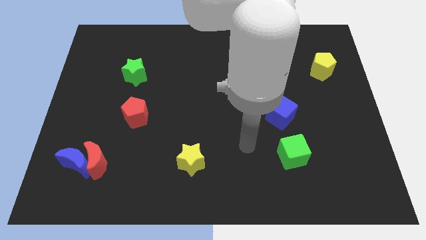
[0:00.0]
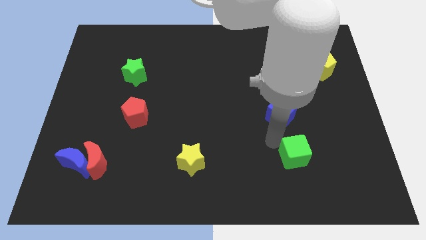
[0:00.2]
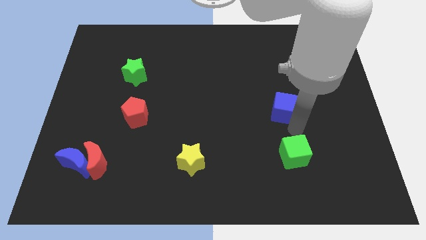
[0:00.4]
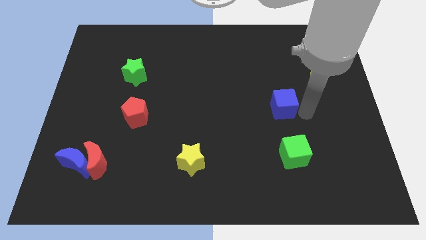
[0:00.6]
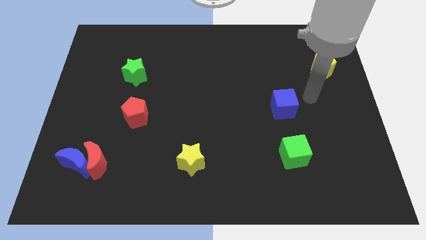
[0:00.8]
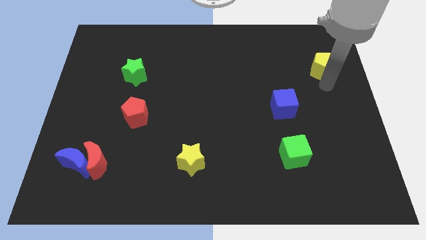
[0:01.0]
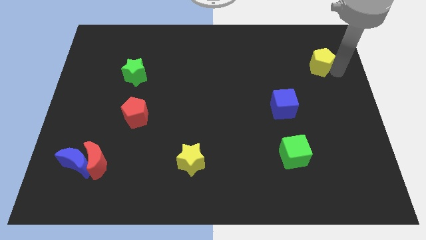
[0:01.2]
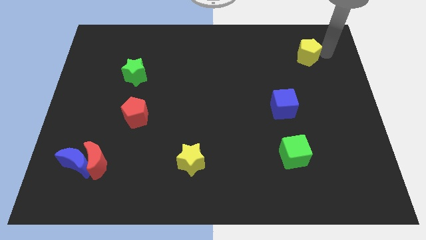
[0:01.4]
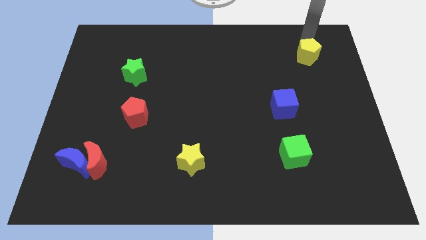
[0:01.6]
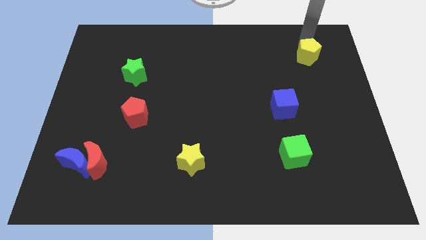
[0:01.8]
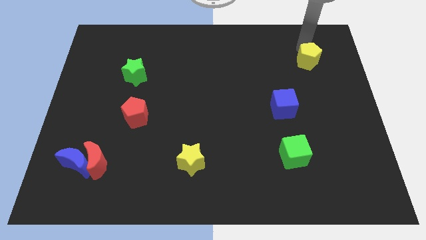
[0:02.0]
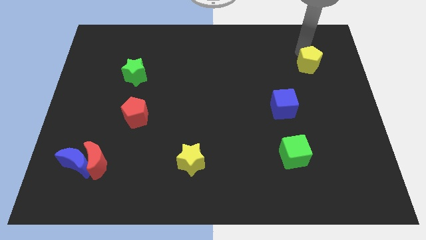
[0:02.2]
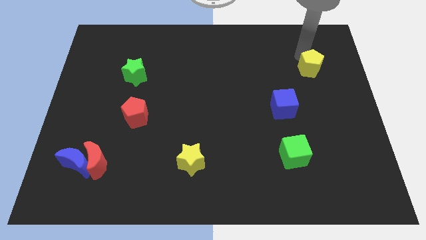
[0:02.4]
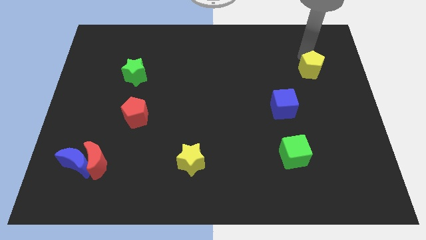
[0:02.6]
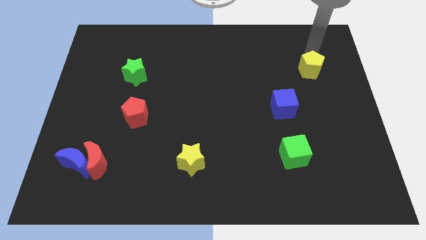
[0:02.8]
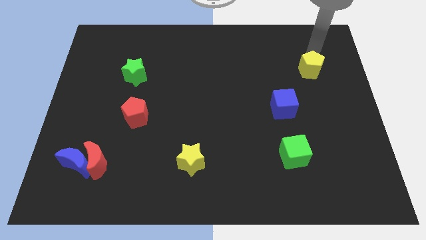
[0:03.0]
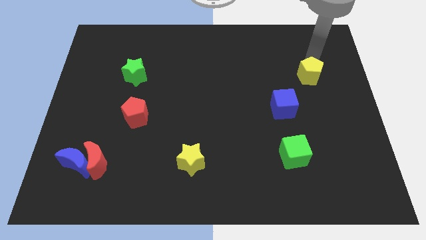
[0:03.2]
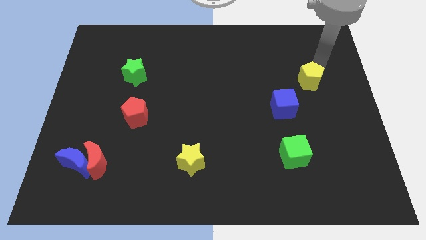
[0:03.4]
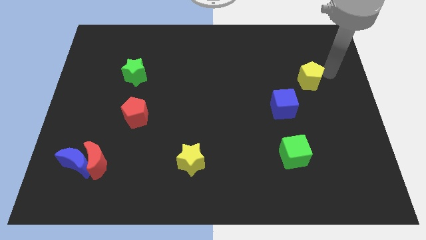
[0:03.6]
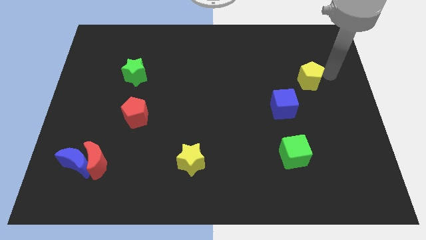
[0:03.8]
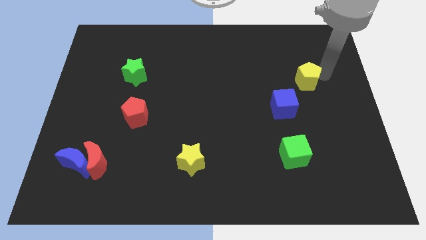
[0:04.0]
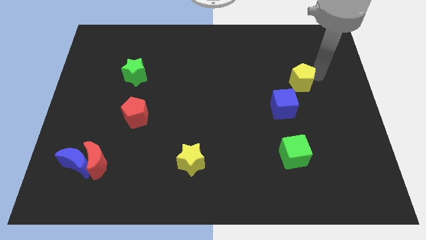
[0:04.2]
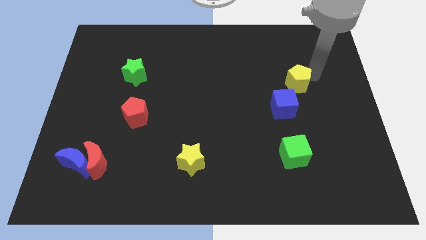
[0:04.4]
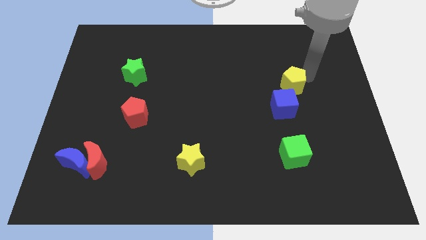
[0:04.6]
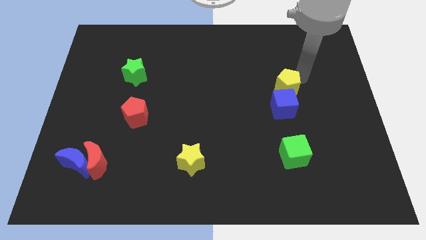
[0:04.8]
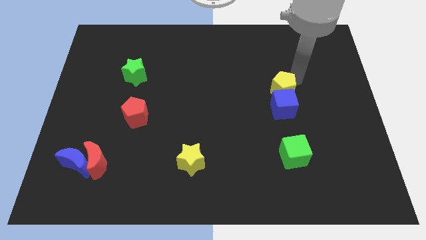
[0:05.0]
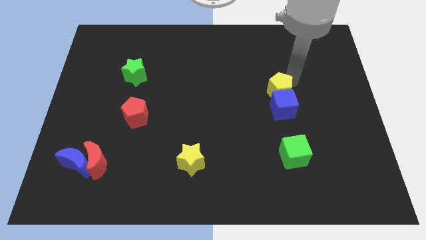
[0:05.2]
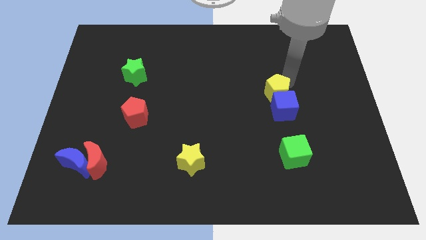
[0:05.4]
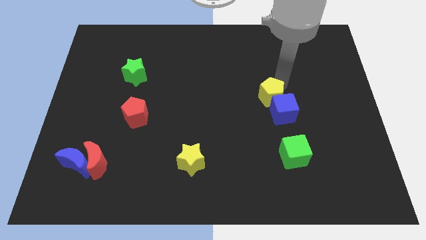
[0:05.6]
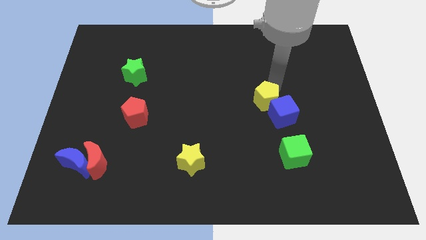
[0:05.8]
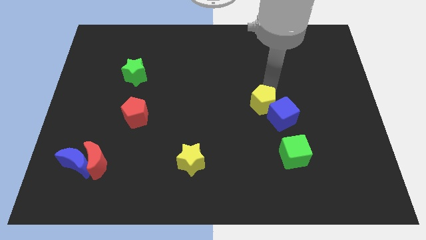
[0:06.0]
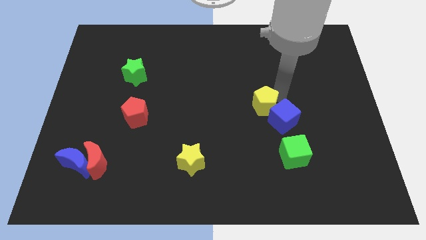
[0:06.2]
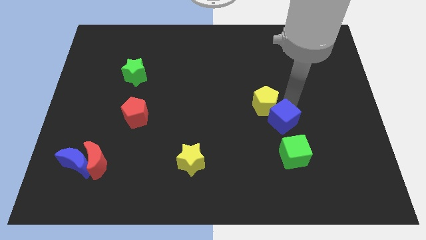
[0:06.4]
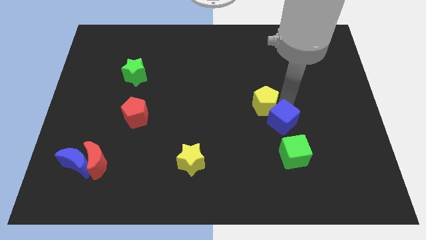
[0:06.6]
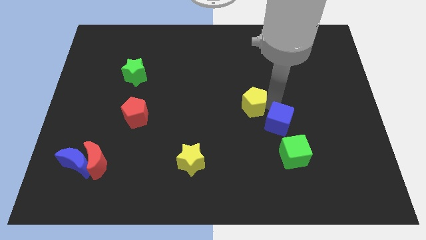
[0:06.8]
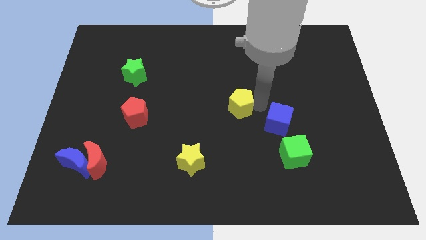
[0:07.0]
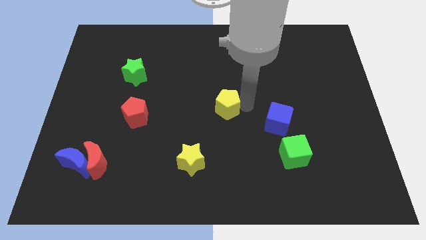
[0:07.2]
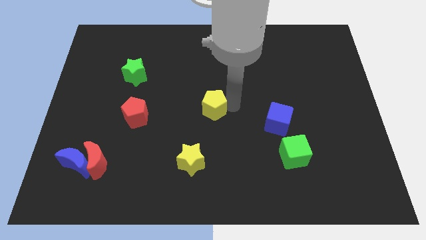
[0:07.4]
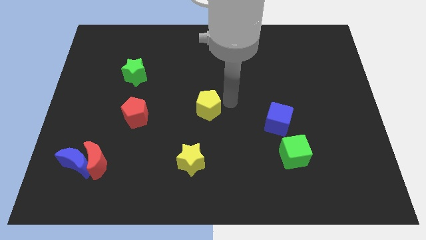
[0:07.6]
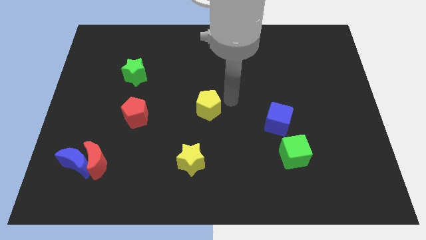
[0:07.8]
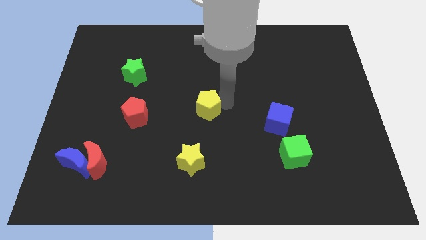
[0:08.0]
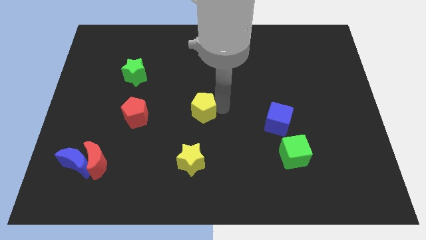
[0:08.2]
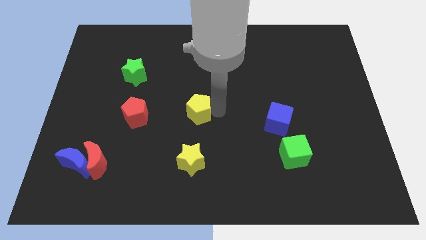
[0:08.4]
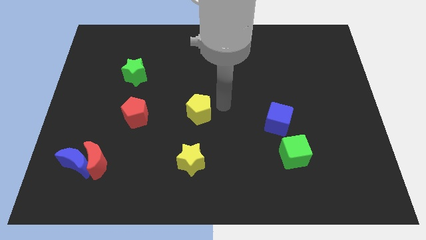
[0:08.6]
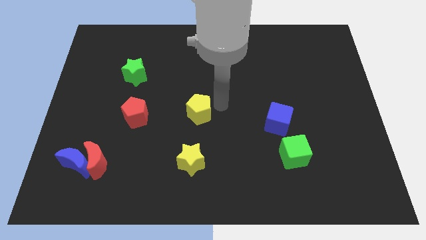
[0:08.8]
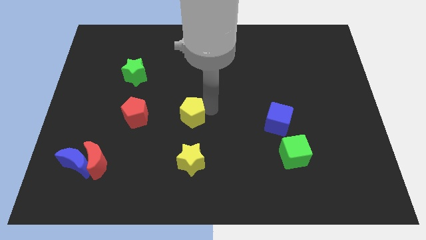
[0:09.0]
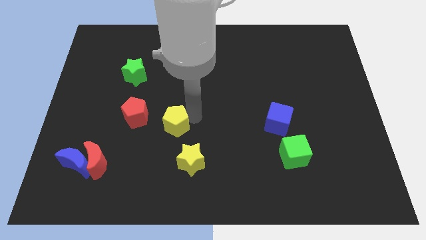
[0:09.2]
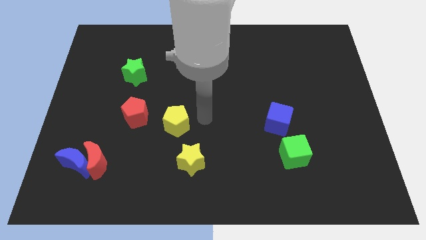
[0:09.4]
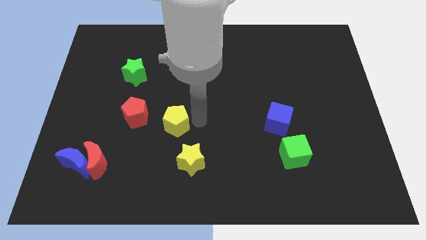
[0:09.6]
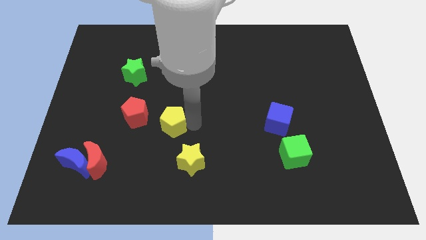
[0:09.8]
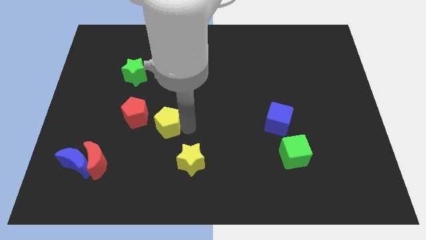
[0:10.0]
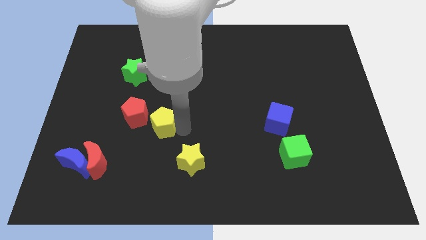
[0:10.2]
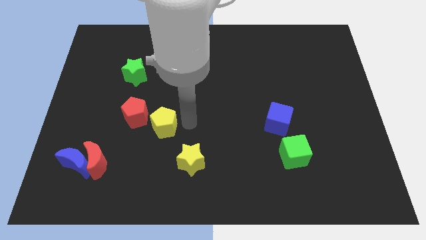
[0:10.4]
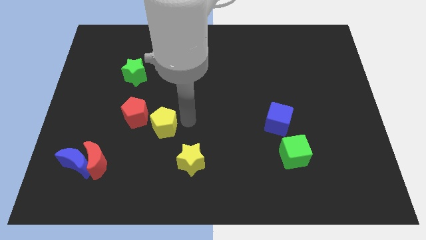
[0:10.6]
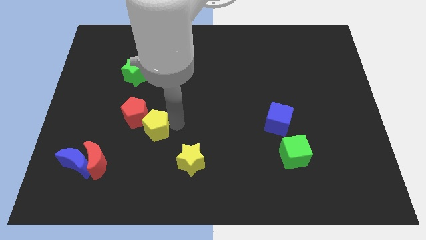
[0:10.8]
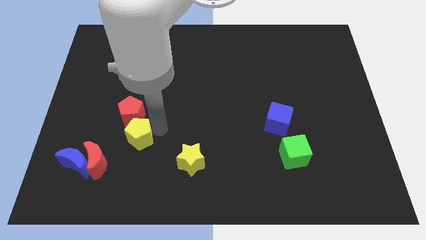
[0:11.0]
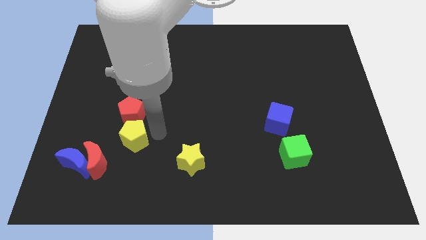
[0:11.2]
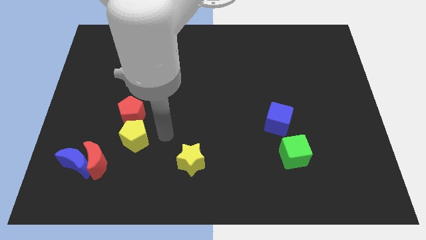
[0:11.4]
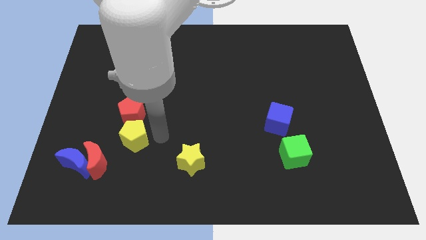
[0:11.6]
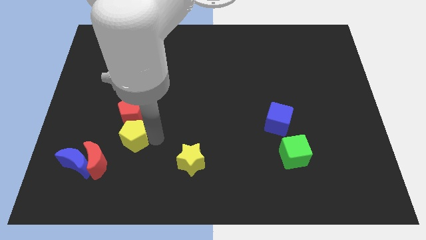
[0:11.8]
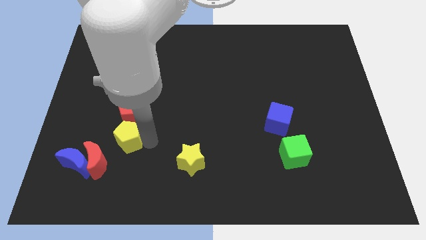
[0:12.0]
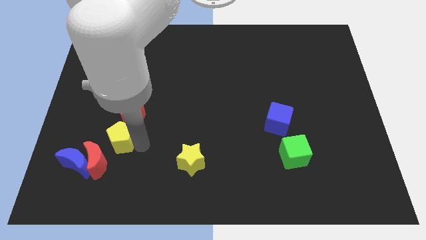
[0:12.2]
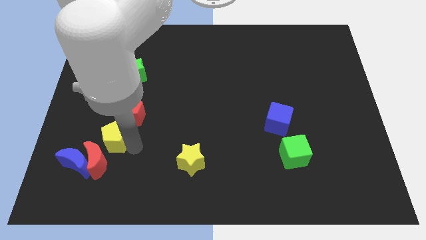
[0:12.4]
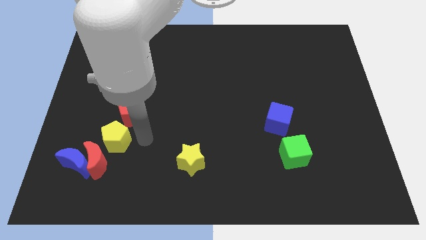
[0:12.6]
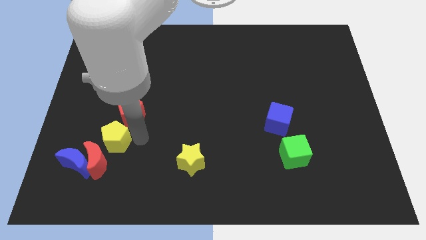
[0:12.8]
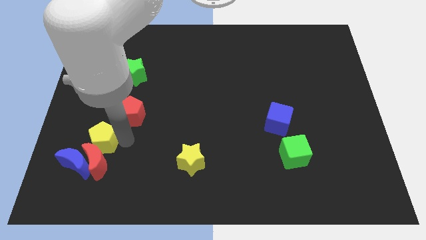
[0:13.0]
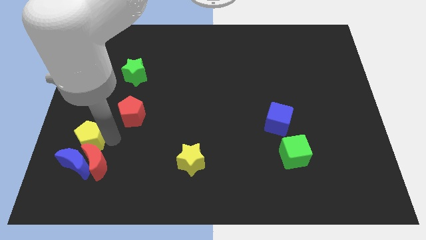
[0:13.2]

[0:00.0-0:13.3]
put the yellow pentagon next to the blue moon
